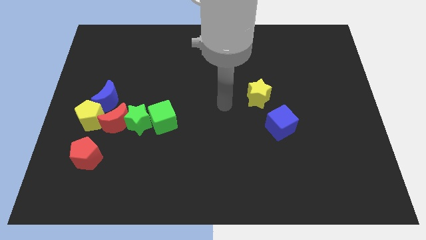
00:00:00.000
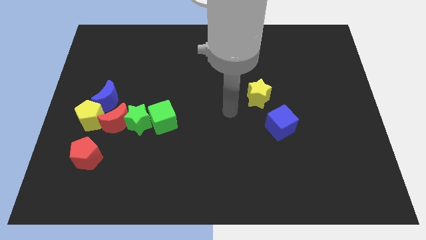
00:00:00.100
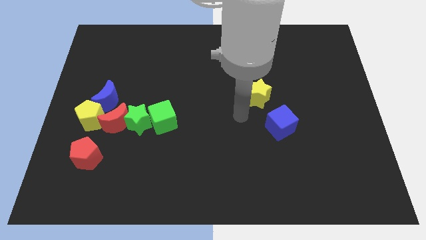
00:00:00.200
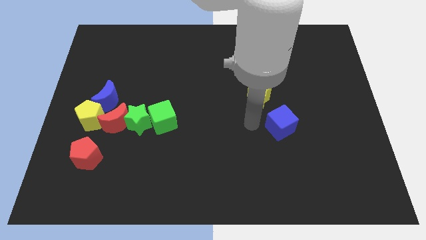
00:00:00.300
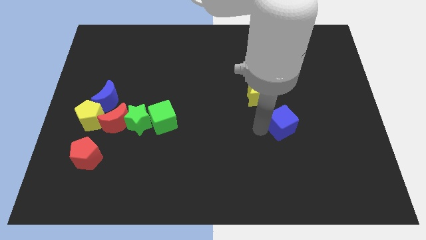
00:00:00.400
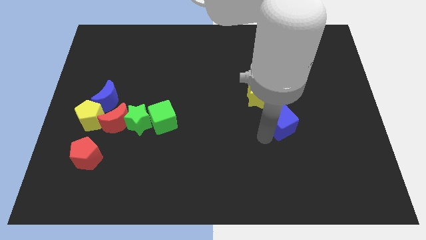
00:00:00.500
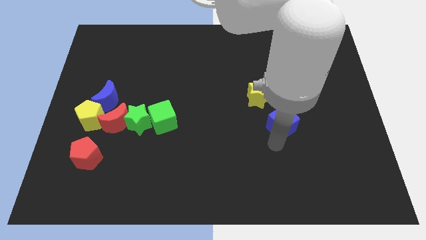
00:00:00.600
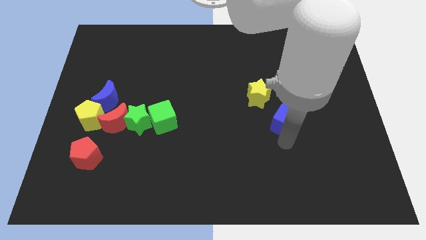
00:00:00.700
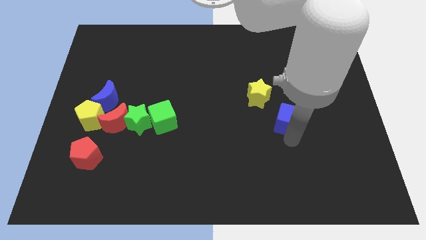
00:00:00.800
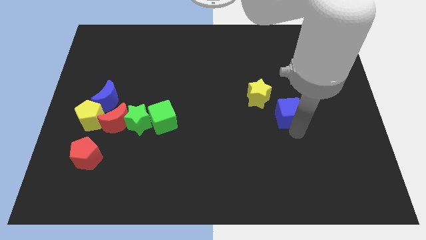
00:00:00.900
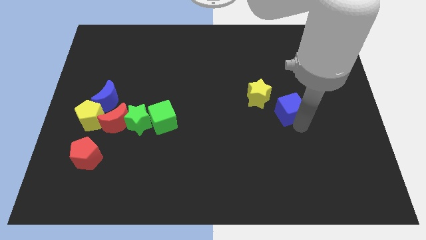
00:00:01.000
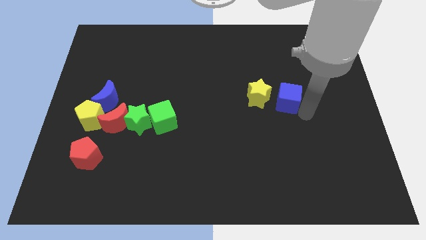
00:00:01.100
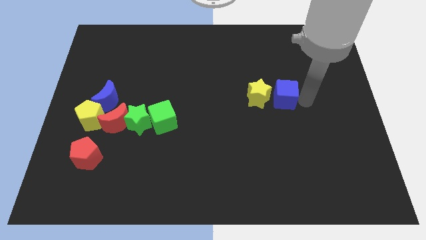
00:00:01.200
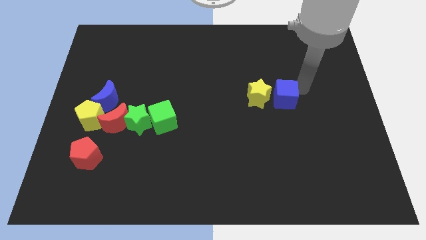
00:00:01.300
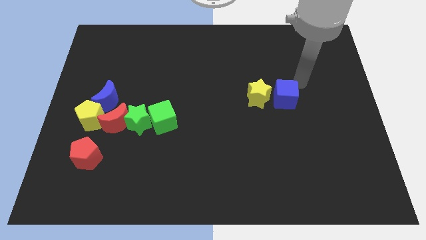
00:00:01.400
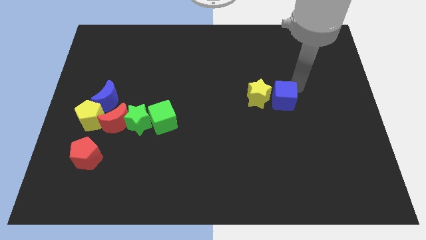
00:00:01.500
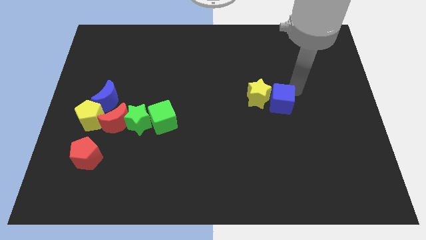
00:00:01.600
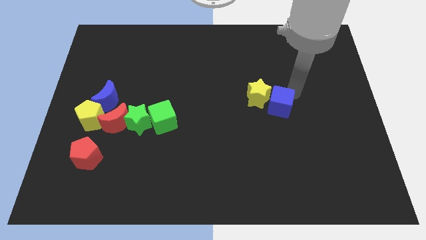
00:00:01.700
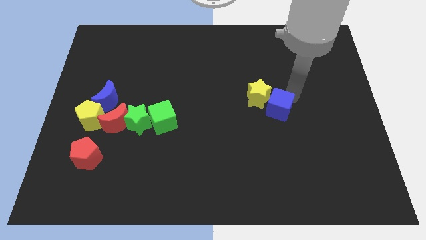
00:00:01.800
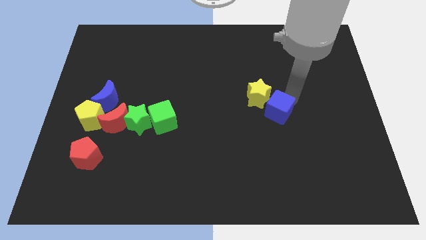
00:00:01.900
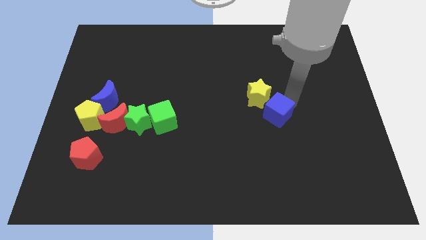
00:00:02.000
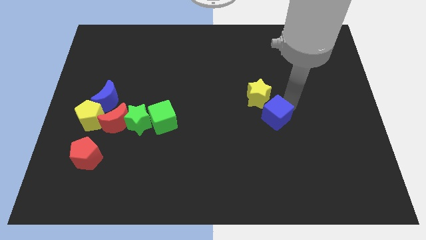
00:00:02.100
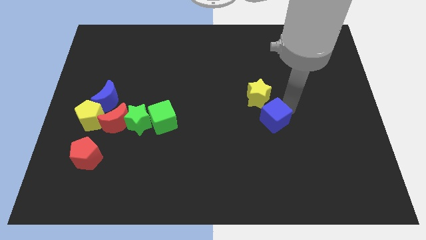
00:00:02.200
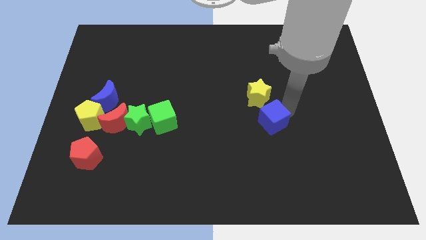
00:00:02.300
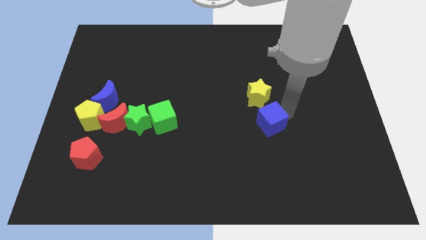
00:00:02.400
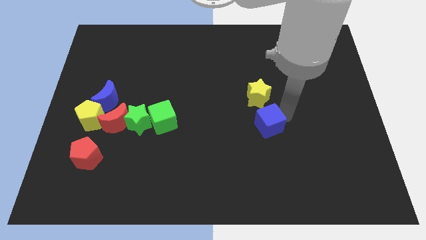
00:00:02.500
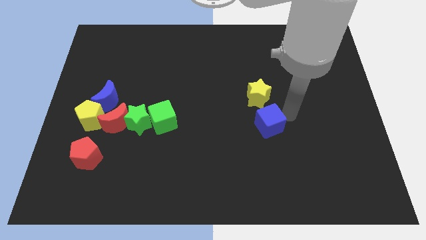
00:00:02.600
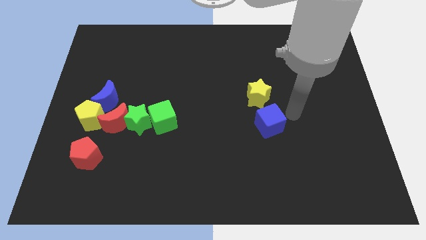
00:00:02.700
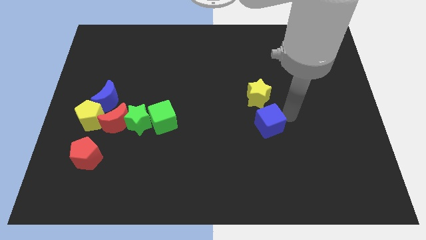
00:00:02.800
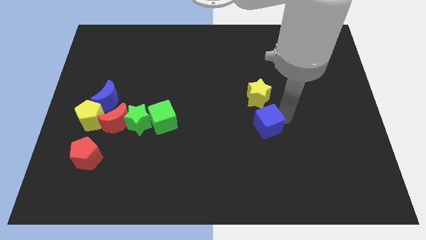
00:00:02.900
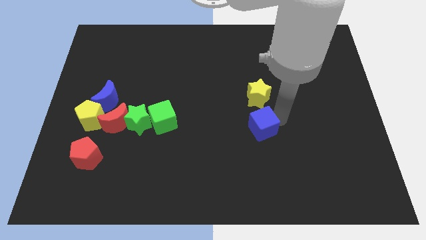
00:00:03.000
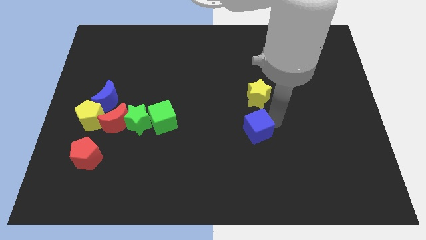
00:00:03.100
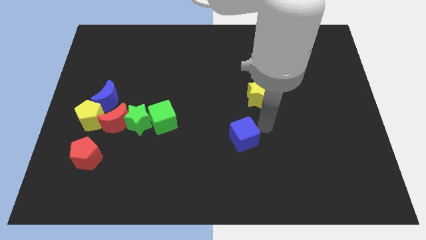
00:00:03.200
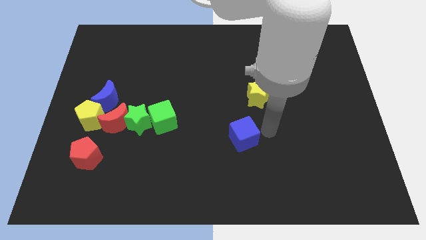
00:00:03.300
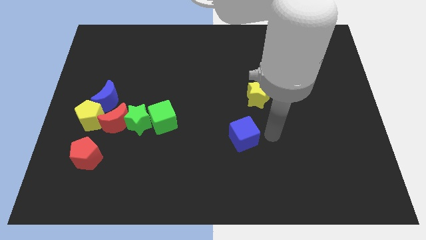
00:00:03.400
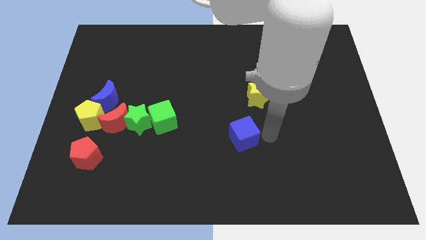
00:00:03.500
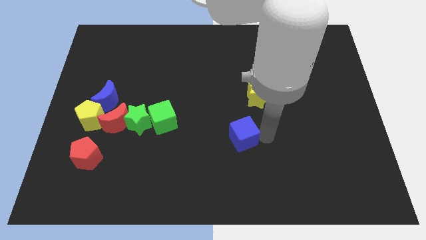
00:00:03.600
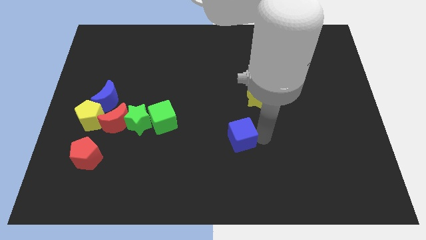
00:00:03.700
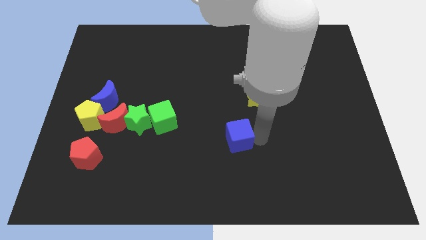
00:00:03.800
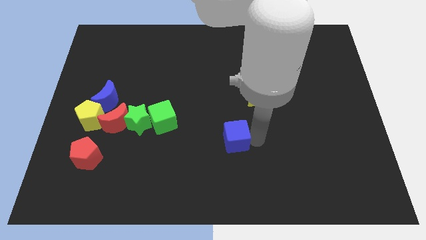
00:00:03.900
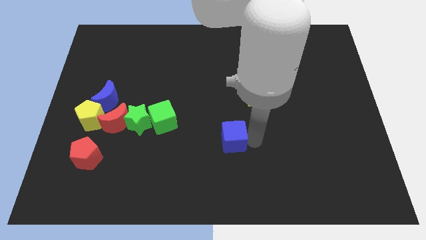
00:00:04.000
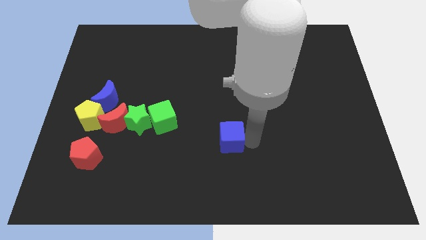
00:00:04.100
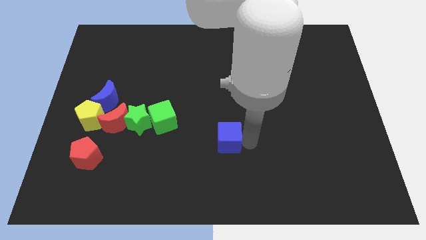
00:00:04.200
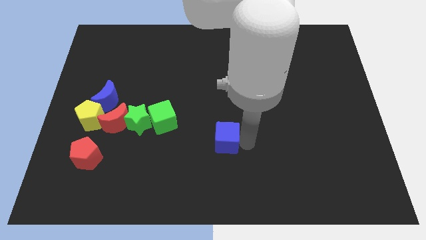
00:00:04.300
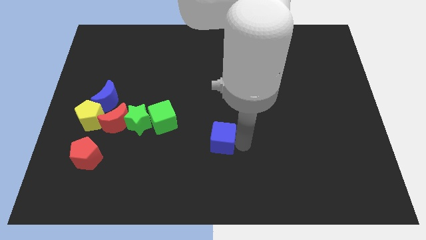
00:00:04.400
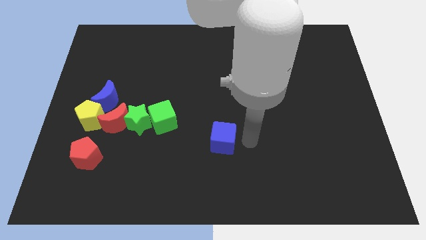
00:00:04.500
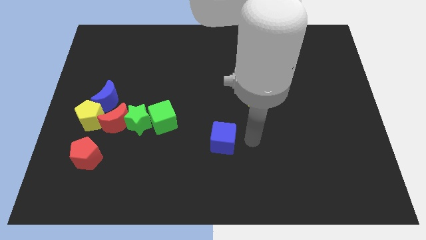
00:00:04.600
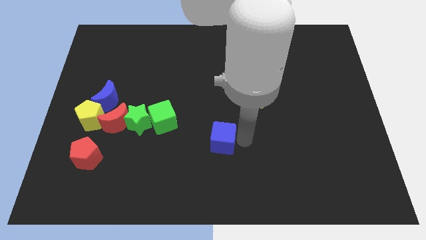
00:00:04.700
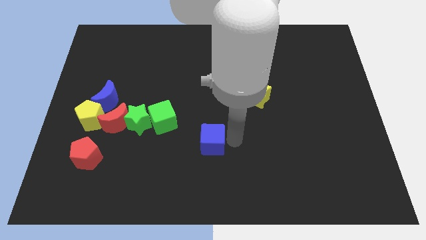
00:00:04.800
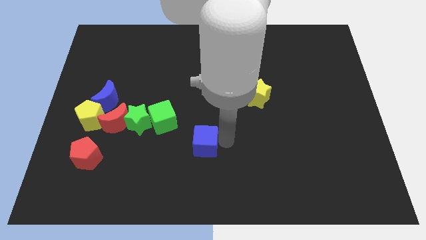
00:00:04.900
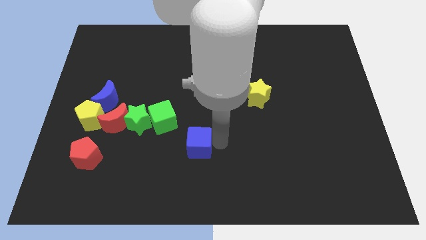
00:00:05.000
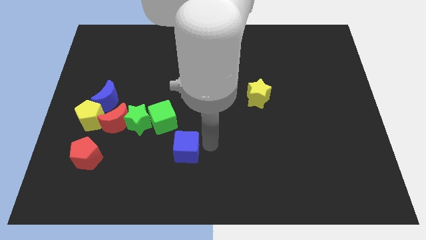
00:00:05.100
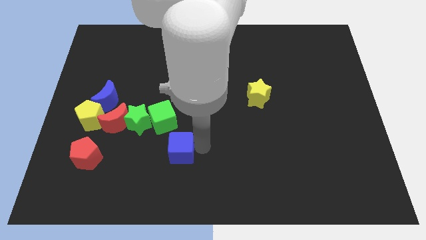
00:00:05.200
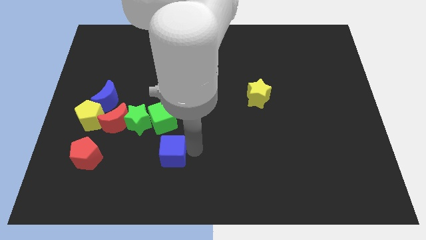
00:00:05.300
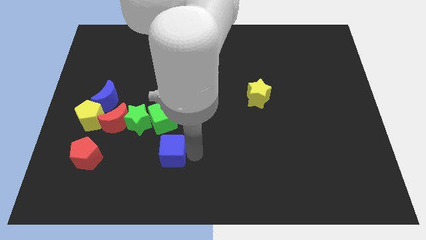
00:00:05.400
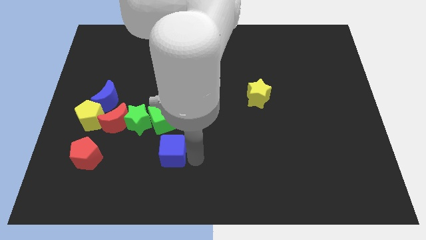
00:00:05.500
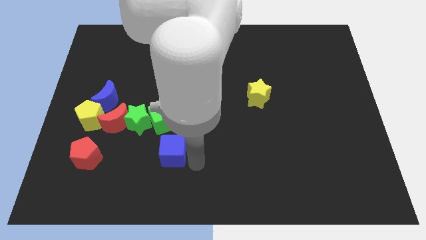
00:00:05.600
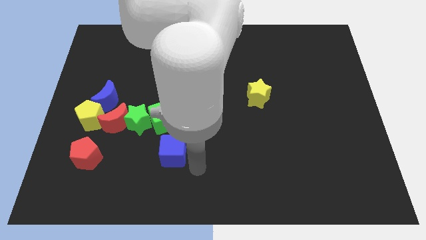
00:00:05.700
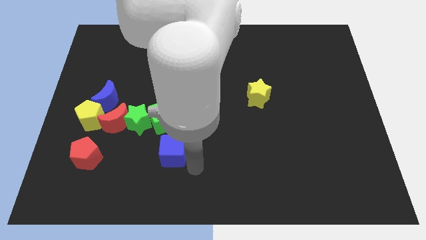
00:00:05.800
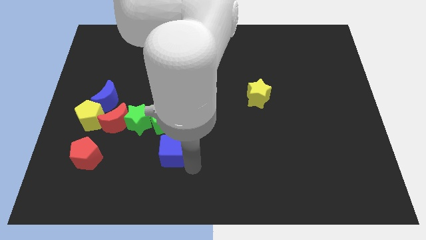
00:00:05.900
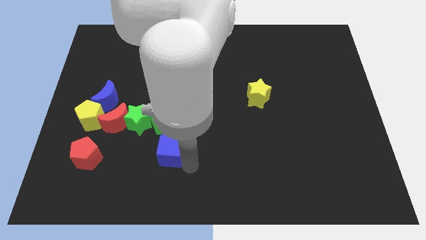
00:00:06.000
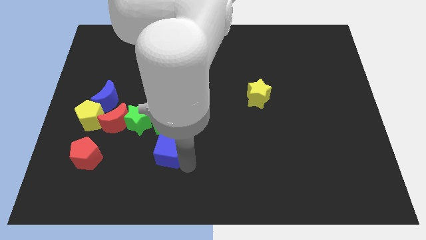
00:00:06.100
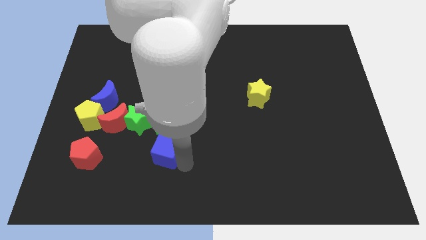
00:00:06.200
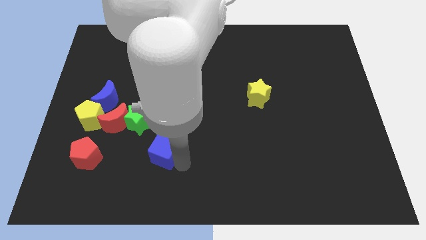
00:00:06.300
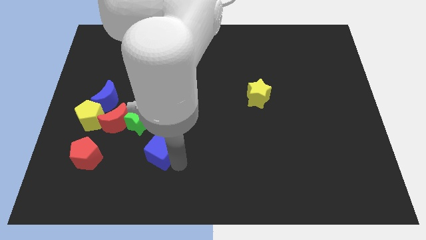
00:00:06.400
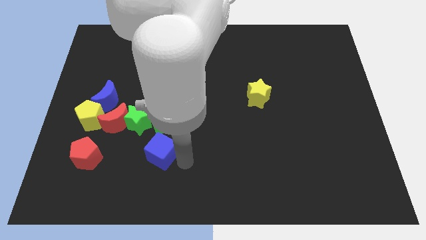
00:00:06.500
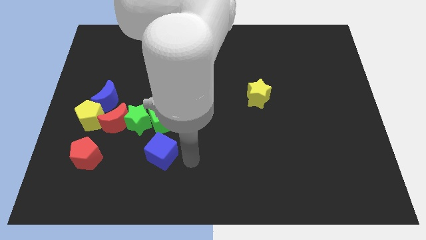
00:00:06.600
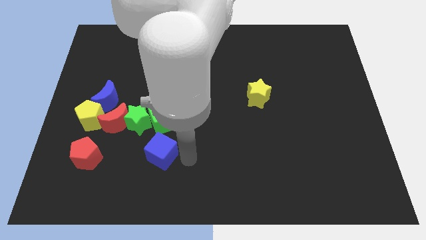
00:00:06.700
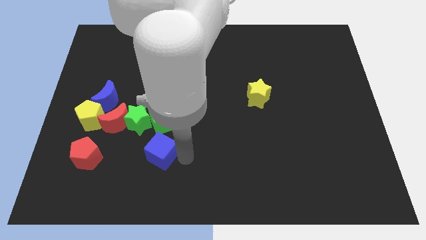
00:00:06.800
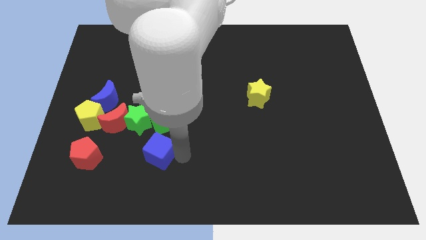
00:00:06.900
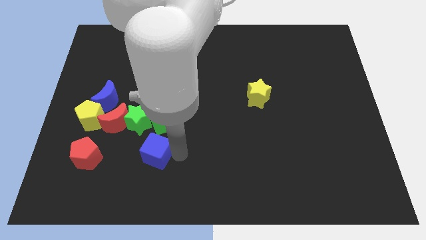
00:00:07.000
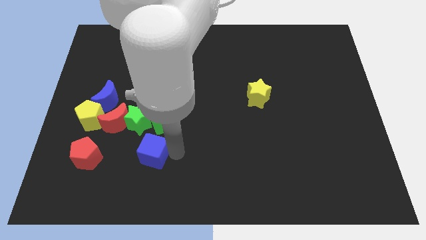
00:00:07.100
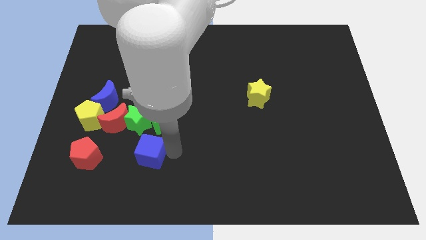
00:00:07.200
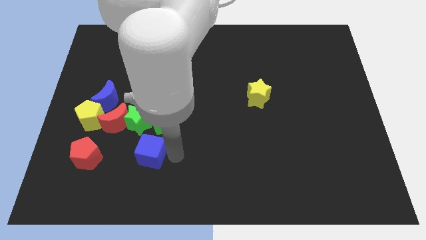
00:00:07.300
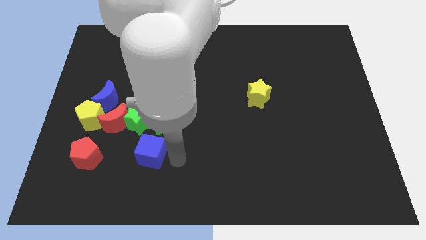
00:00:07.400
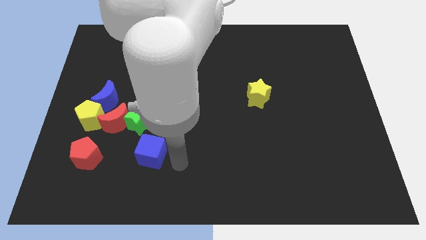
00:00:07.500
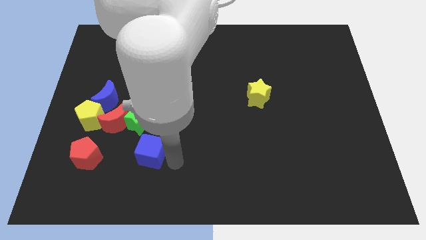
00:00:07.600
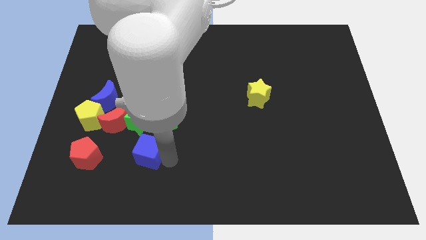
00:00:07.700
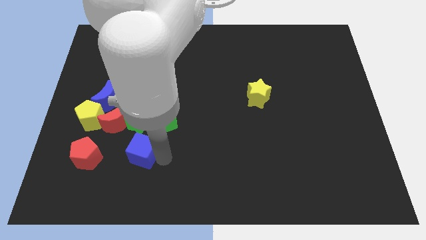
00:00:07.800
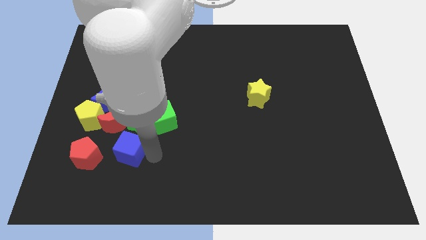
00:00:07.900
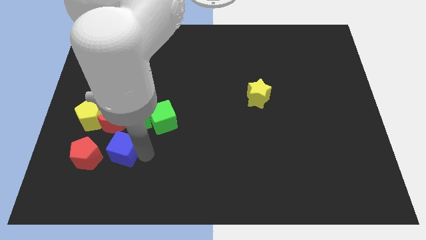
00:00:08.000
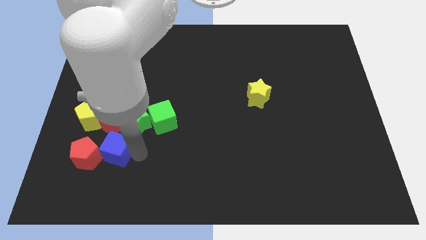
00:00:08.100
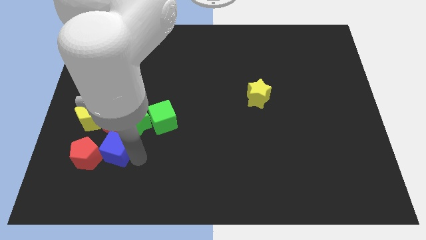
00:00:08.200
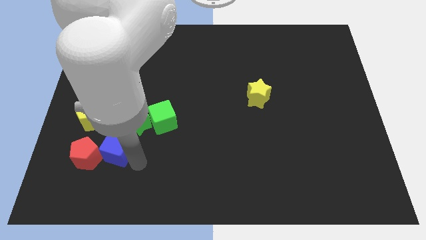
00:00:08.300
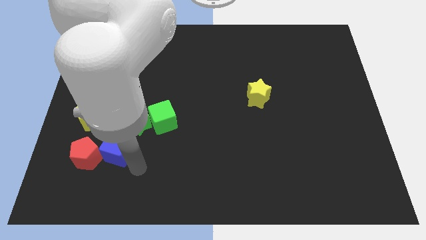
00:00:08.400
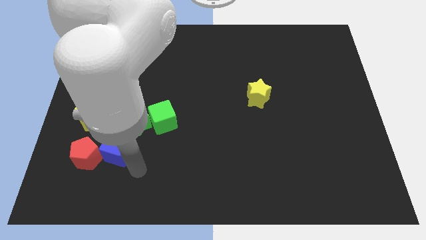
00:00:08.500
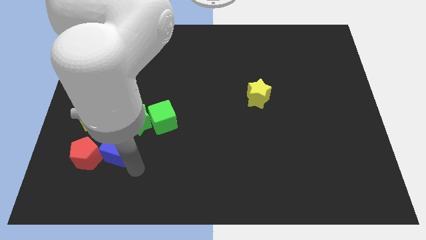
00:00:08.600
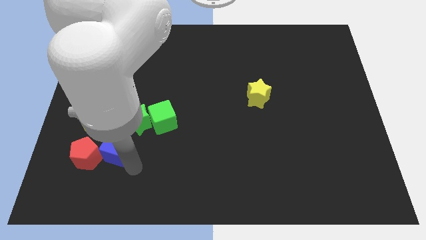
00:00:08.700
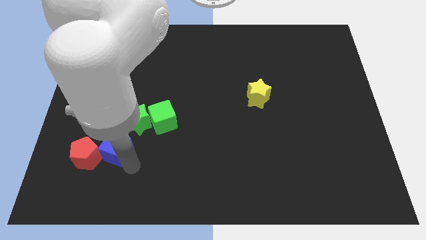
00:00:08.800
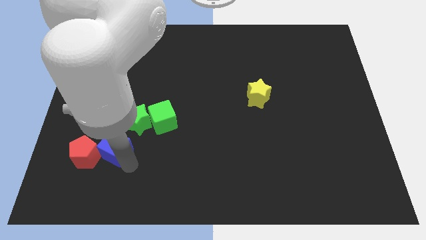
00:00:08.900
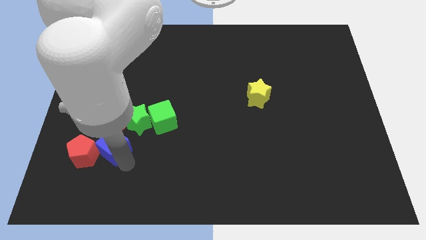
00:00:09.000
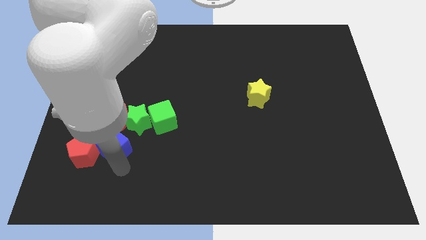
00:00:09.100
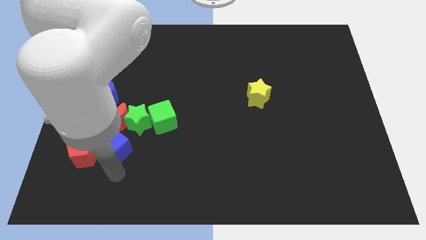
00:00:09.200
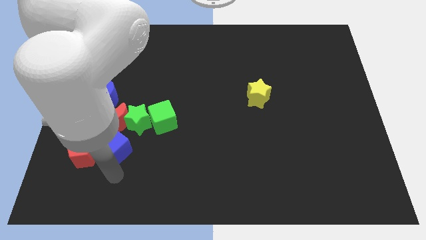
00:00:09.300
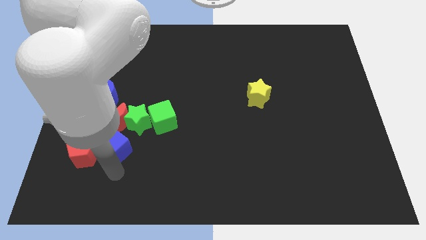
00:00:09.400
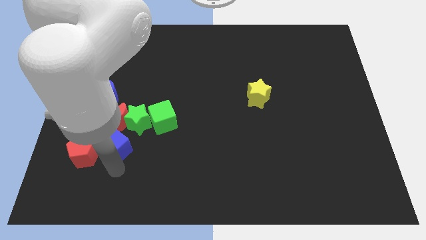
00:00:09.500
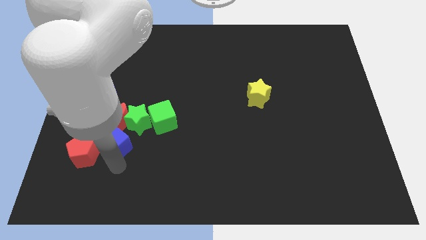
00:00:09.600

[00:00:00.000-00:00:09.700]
push the blue cube towards the red moon
